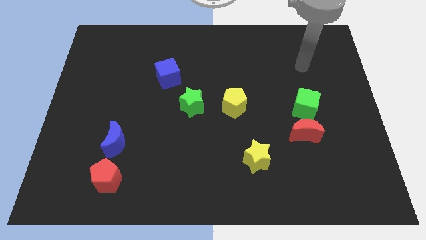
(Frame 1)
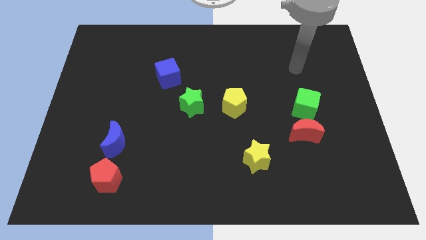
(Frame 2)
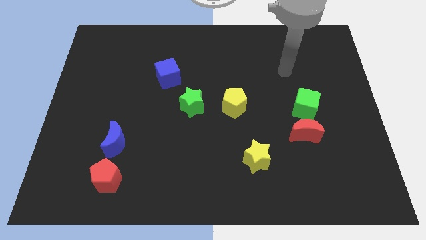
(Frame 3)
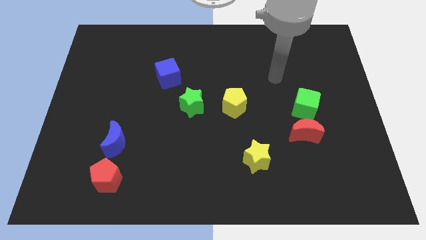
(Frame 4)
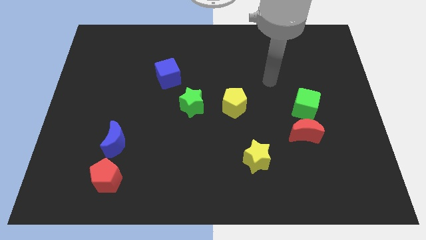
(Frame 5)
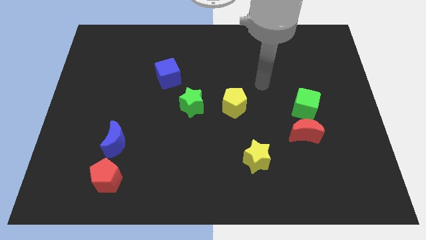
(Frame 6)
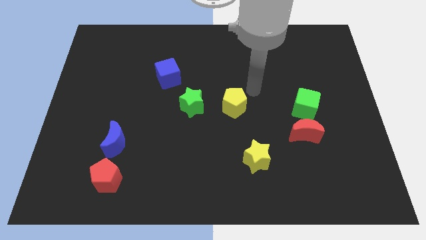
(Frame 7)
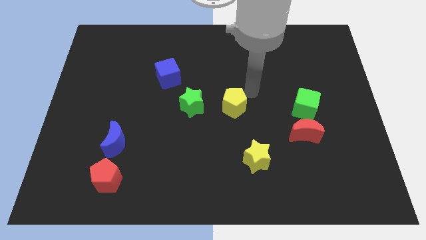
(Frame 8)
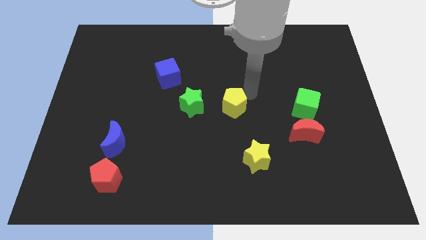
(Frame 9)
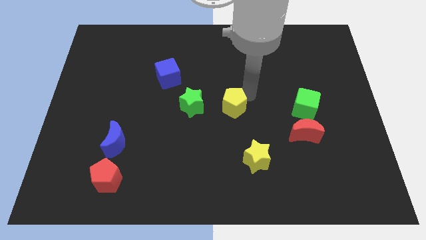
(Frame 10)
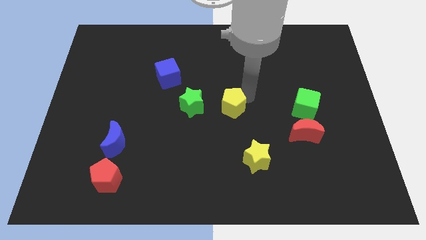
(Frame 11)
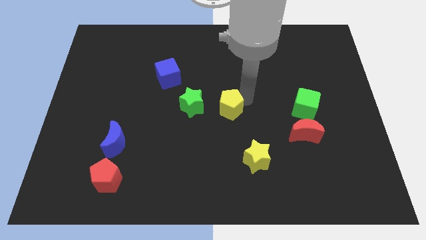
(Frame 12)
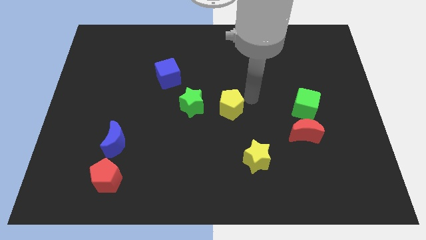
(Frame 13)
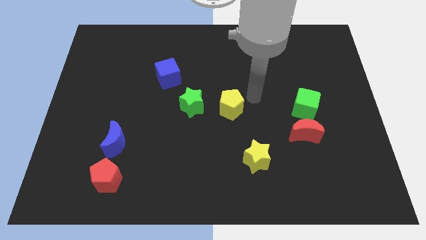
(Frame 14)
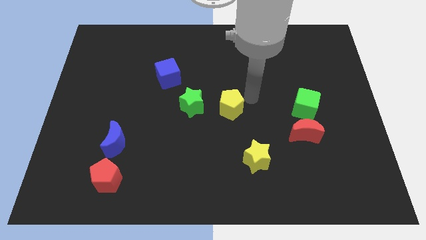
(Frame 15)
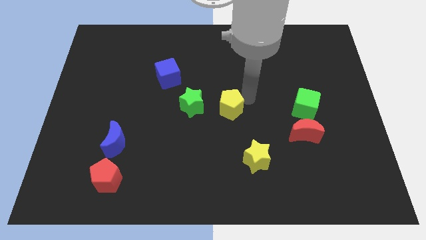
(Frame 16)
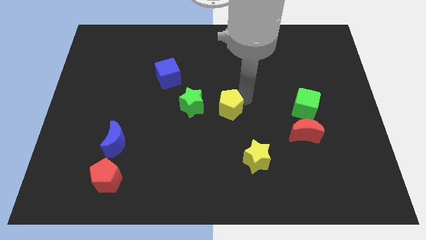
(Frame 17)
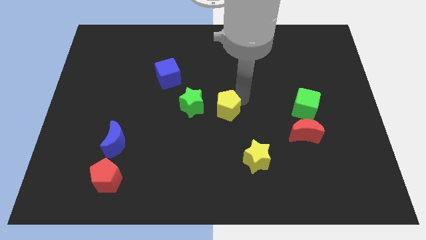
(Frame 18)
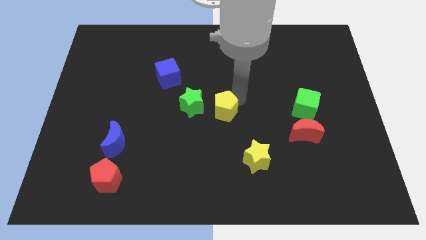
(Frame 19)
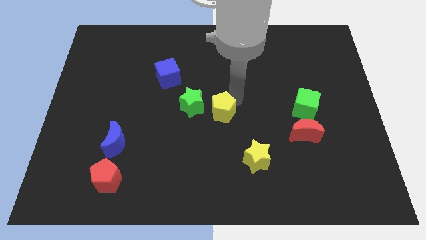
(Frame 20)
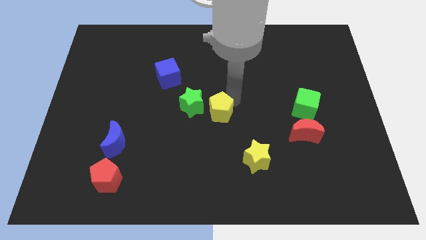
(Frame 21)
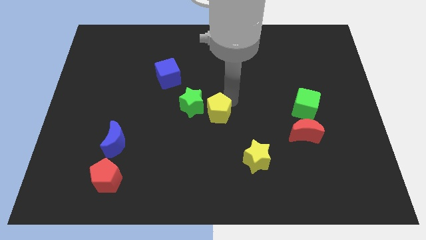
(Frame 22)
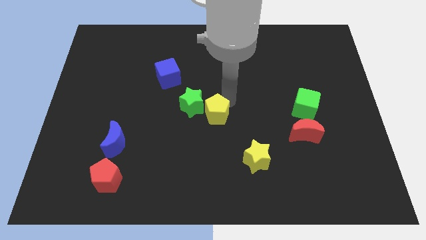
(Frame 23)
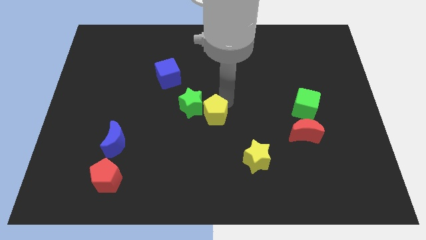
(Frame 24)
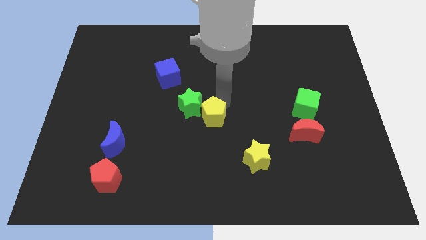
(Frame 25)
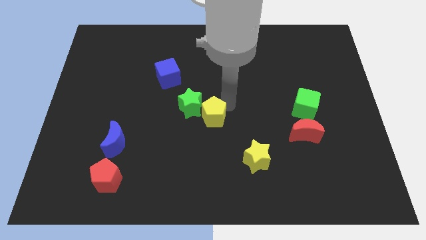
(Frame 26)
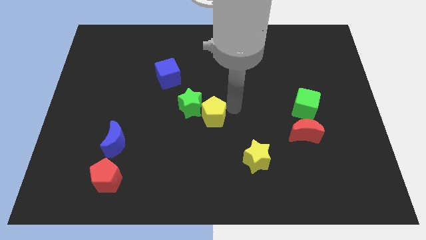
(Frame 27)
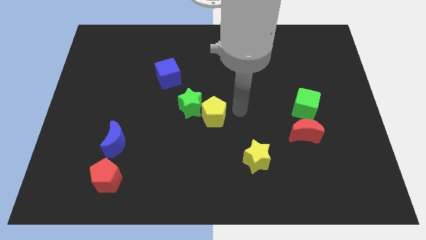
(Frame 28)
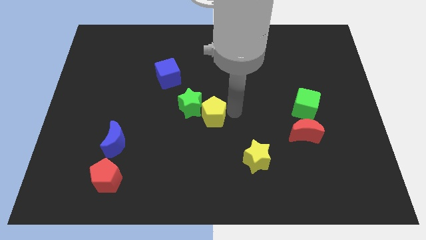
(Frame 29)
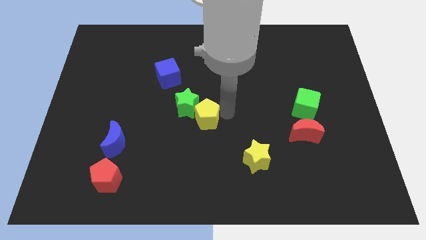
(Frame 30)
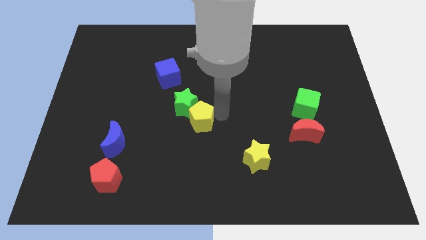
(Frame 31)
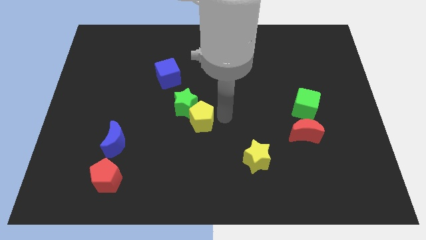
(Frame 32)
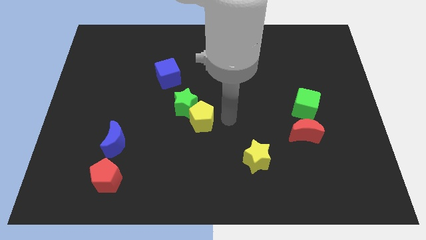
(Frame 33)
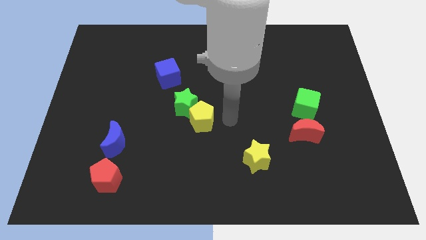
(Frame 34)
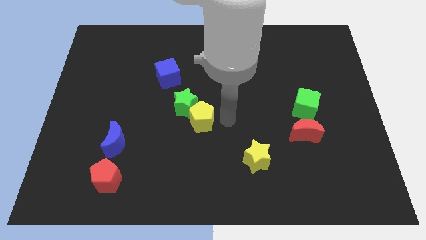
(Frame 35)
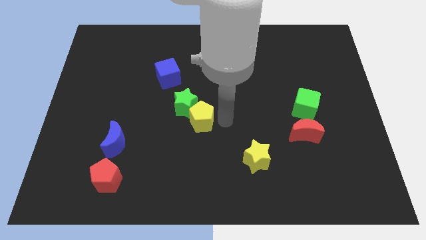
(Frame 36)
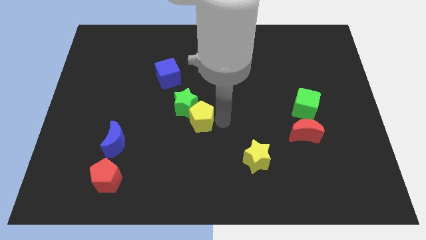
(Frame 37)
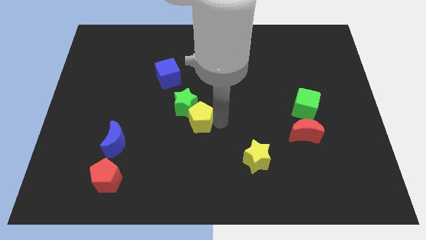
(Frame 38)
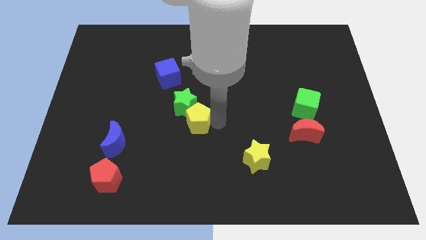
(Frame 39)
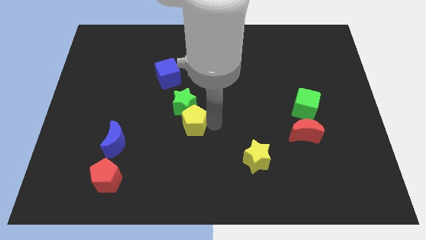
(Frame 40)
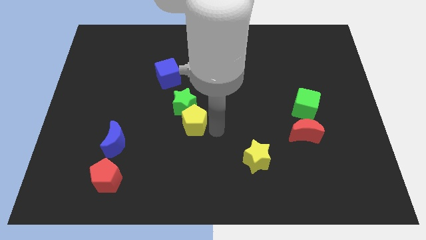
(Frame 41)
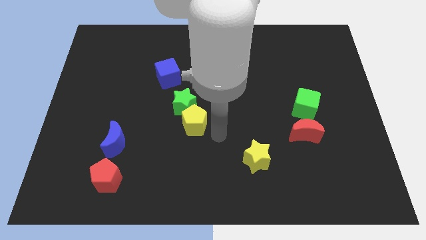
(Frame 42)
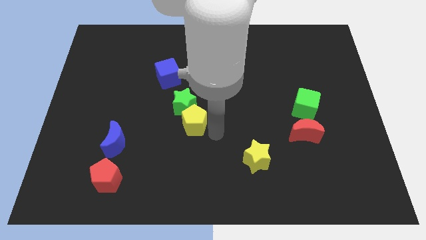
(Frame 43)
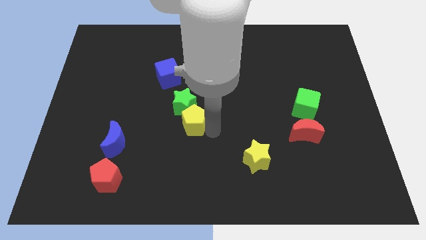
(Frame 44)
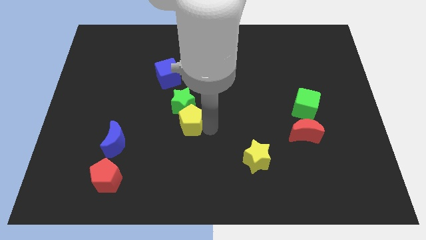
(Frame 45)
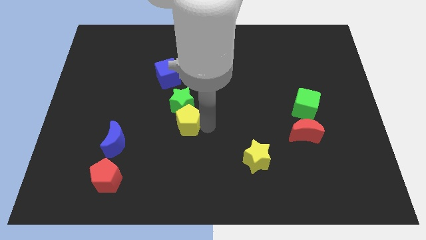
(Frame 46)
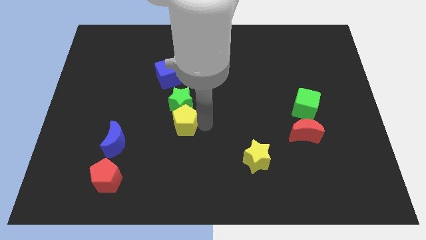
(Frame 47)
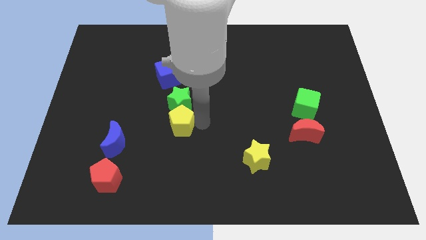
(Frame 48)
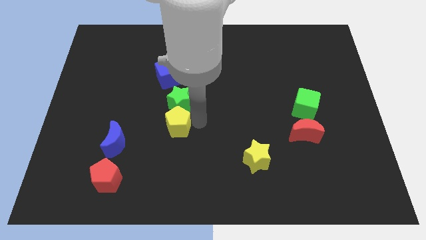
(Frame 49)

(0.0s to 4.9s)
put the yellow pentagon to the bottom side of the blue cube

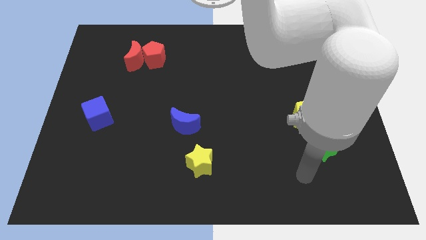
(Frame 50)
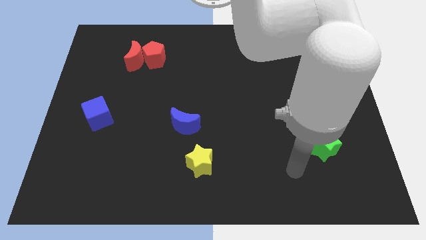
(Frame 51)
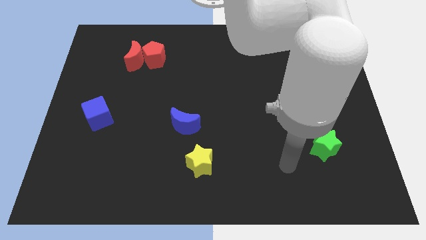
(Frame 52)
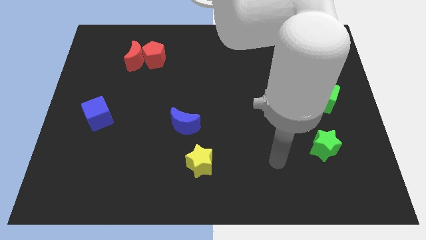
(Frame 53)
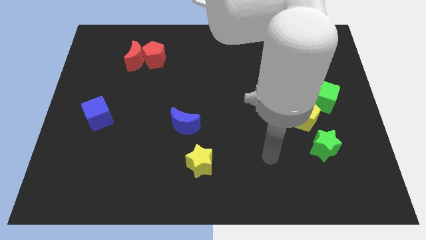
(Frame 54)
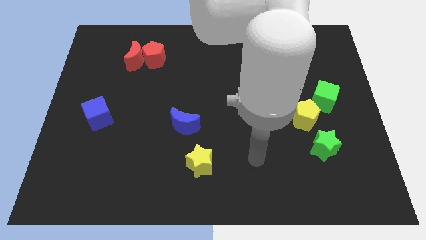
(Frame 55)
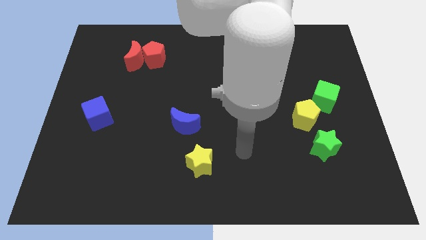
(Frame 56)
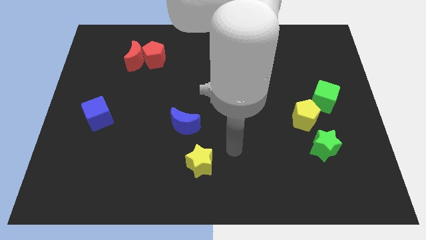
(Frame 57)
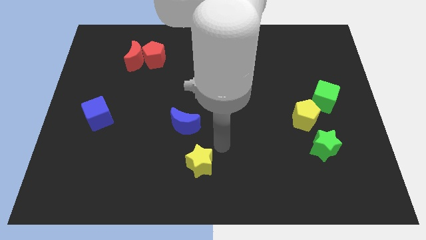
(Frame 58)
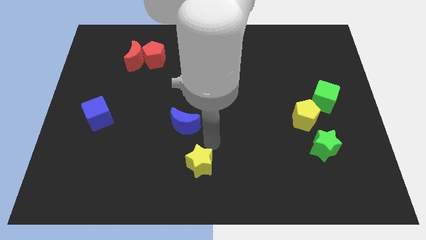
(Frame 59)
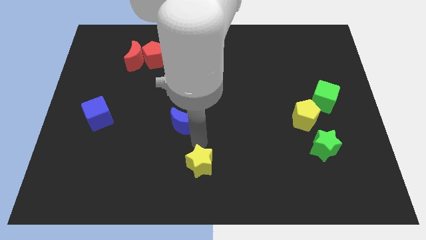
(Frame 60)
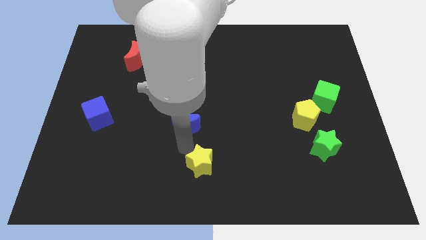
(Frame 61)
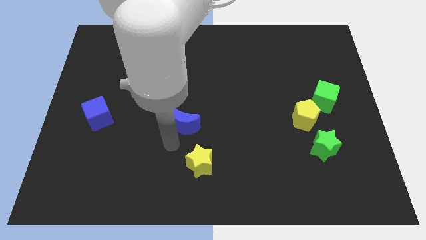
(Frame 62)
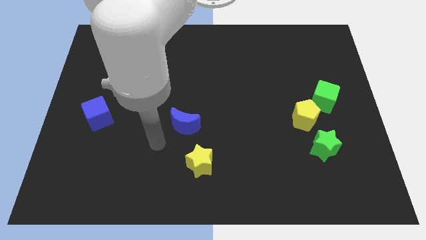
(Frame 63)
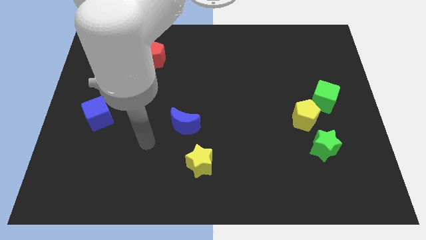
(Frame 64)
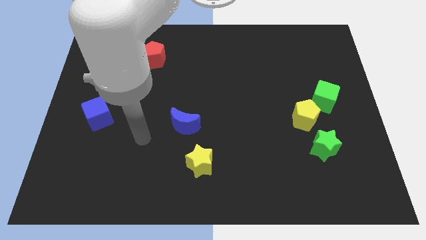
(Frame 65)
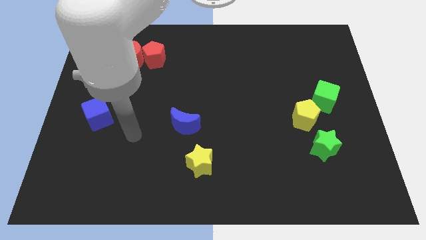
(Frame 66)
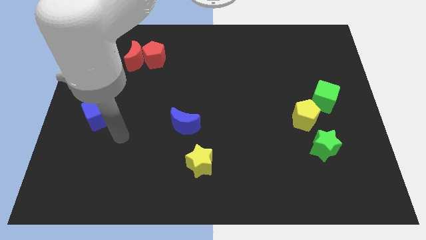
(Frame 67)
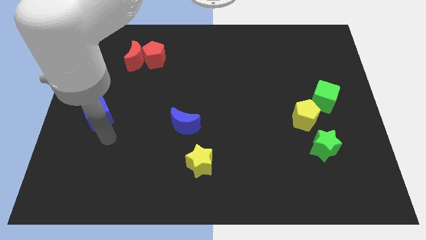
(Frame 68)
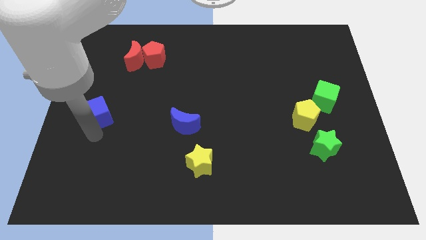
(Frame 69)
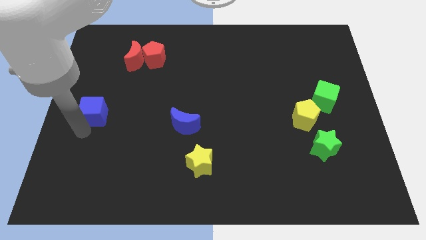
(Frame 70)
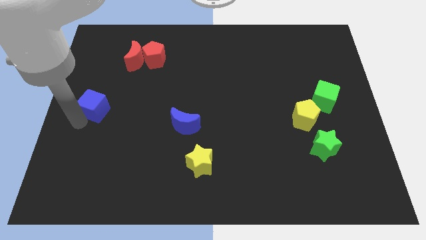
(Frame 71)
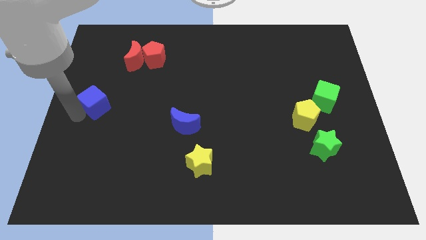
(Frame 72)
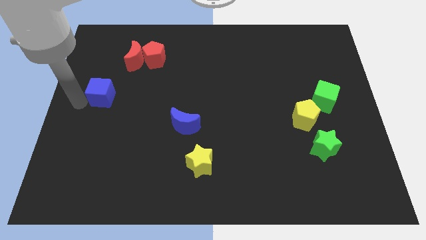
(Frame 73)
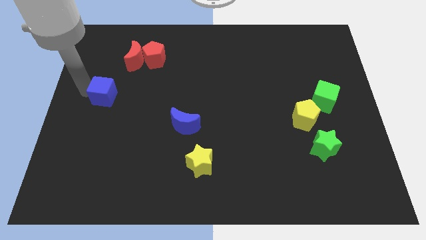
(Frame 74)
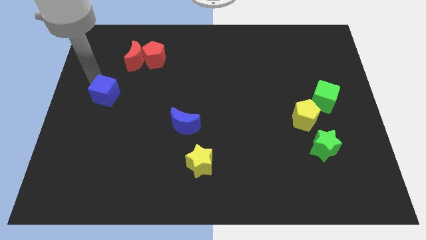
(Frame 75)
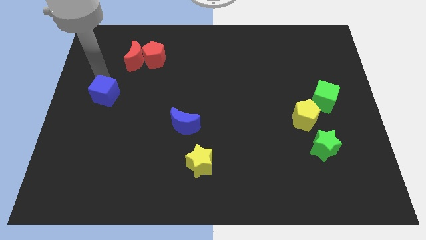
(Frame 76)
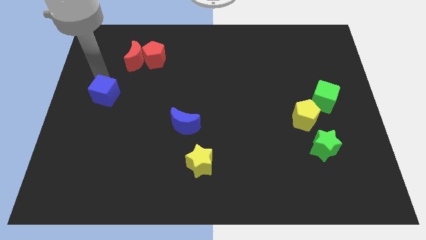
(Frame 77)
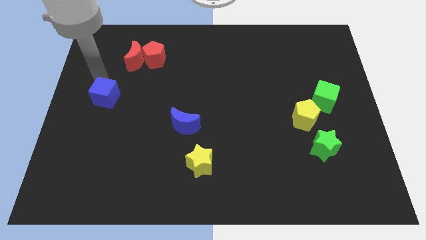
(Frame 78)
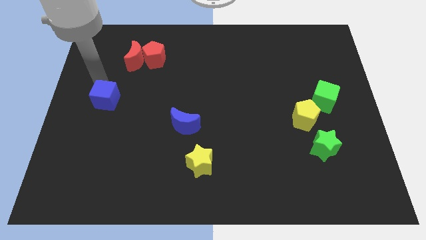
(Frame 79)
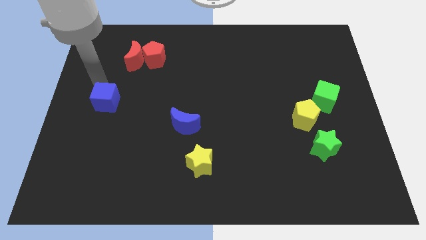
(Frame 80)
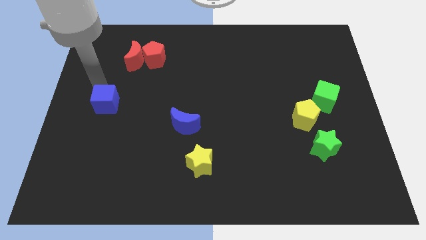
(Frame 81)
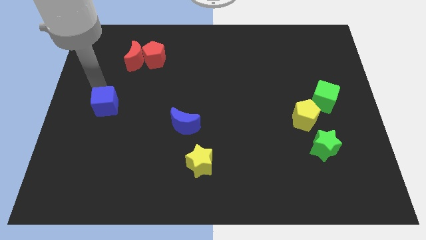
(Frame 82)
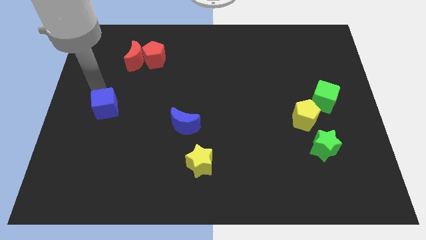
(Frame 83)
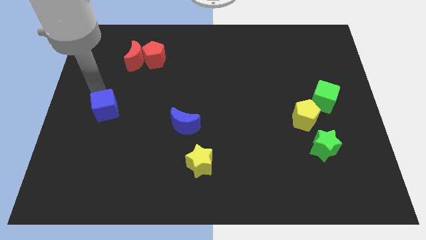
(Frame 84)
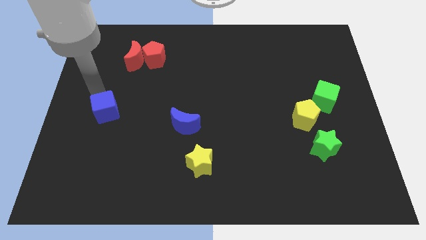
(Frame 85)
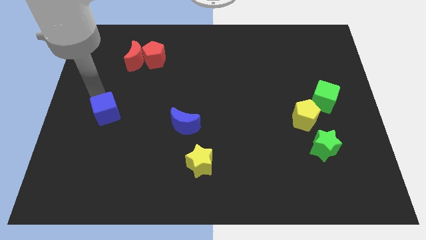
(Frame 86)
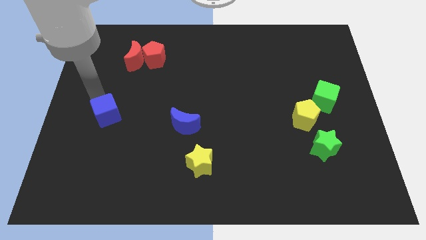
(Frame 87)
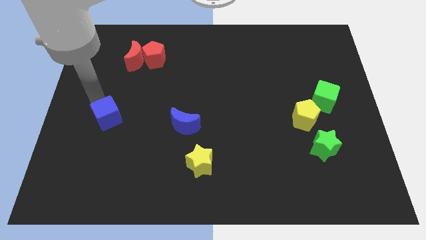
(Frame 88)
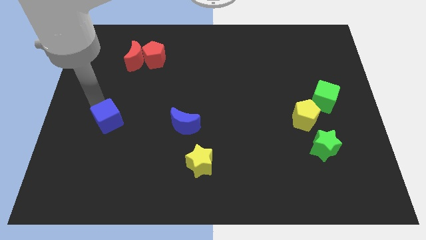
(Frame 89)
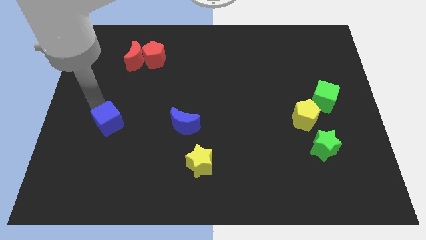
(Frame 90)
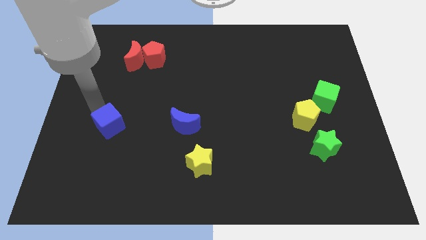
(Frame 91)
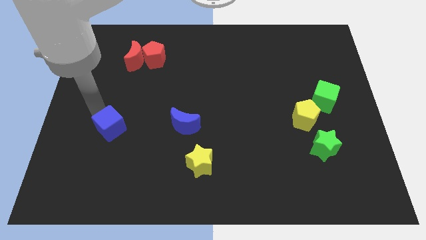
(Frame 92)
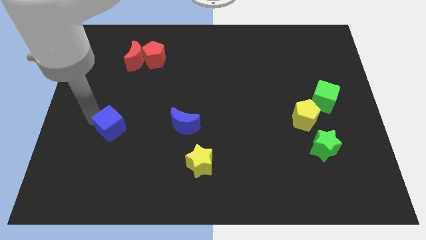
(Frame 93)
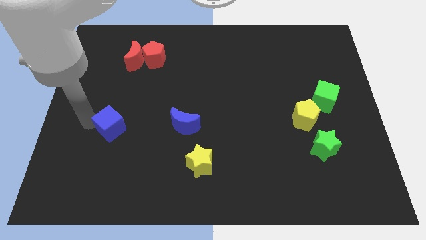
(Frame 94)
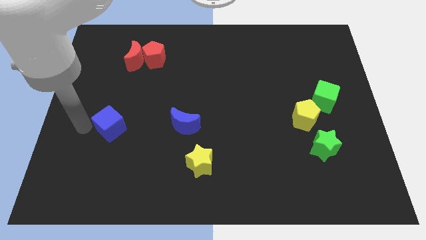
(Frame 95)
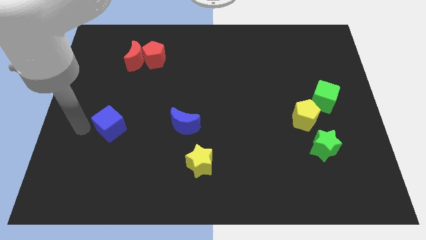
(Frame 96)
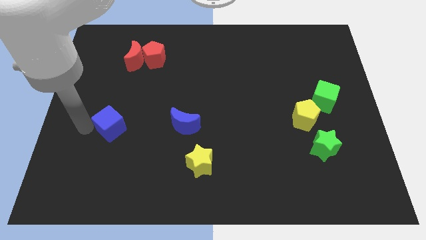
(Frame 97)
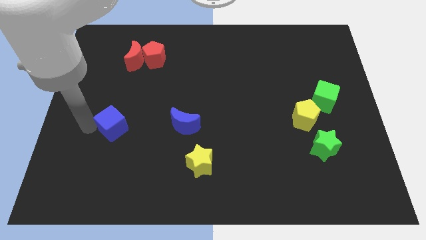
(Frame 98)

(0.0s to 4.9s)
slide the blue cube just left of the blue moon
